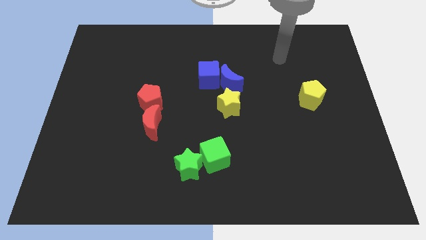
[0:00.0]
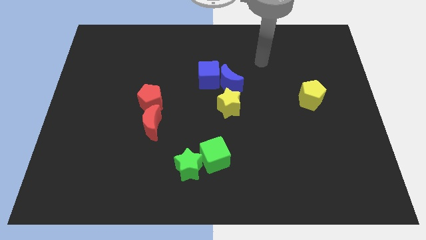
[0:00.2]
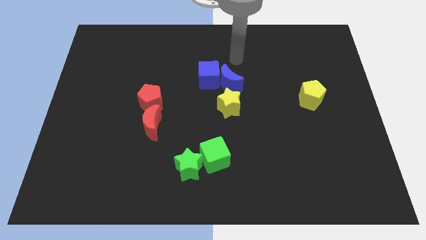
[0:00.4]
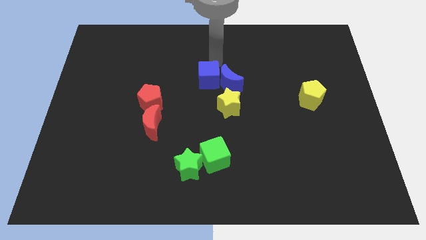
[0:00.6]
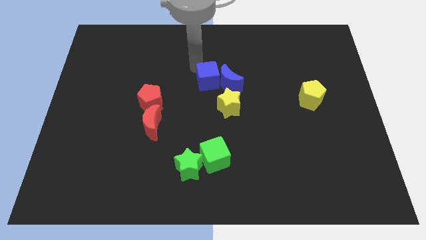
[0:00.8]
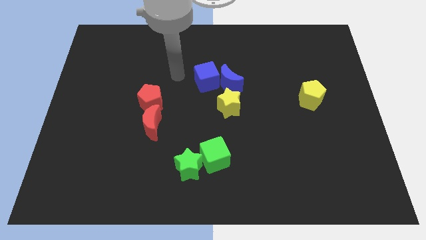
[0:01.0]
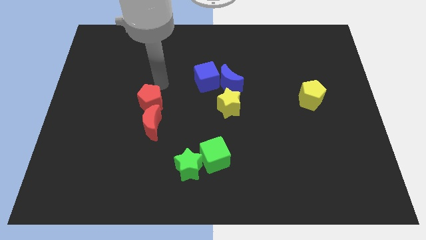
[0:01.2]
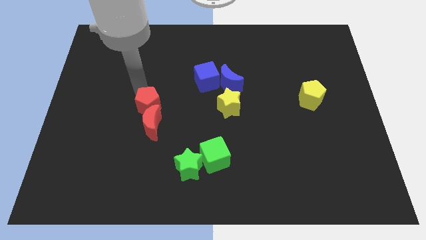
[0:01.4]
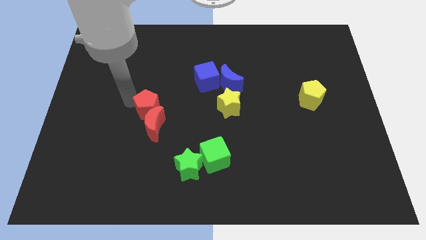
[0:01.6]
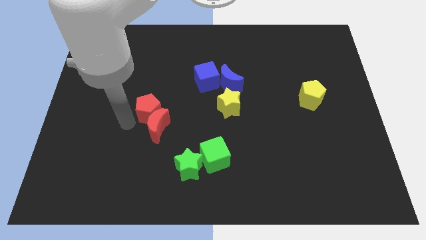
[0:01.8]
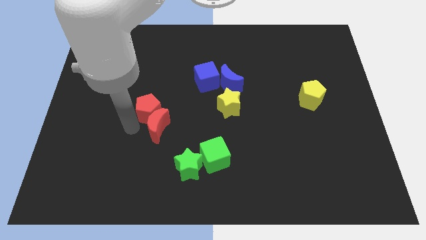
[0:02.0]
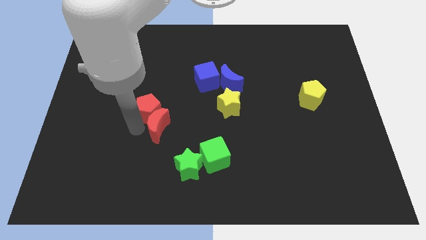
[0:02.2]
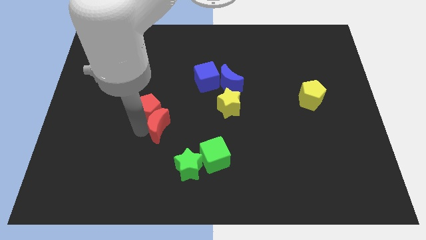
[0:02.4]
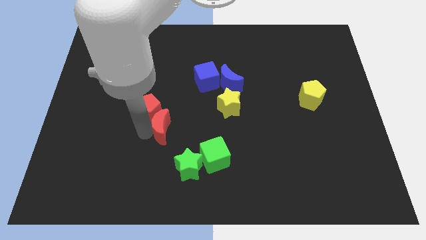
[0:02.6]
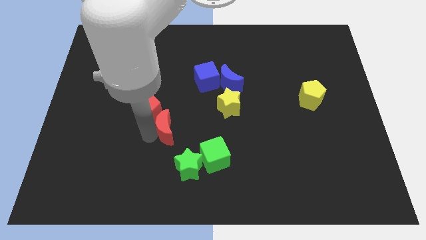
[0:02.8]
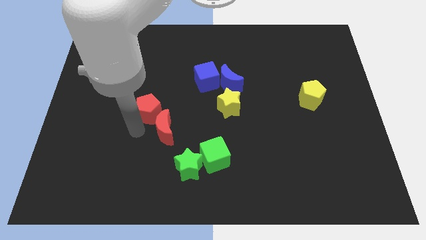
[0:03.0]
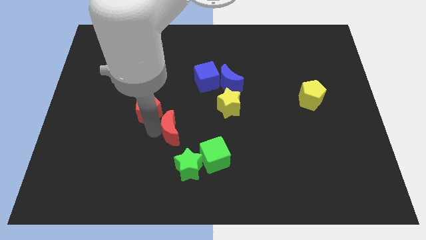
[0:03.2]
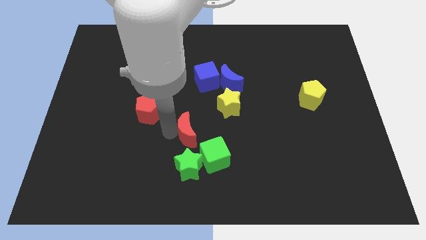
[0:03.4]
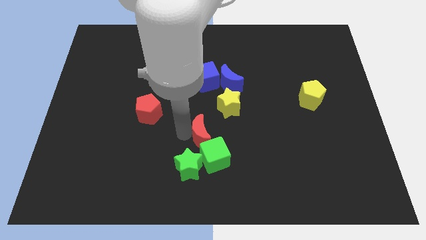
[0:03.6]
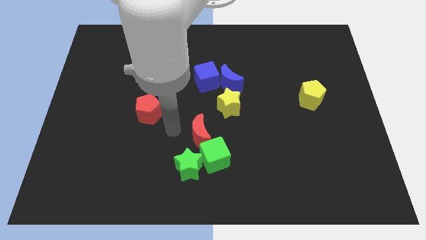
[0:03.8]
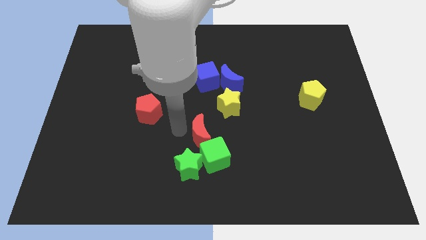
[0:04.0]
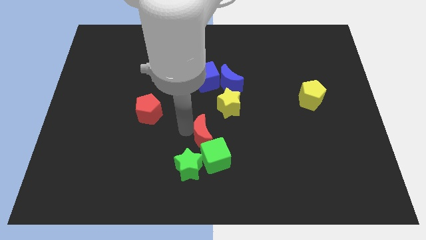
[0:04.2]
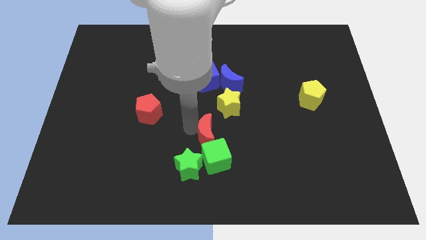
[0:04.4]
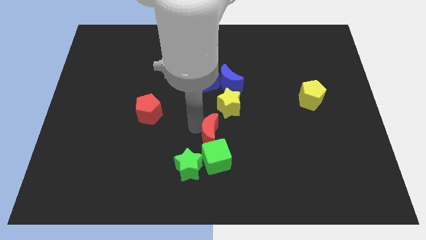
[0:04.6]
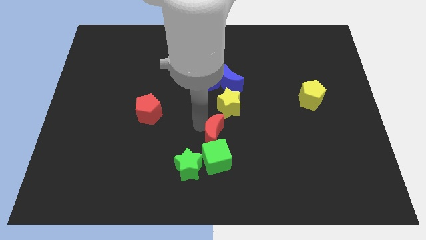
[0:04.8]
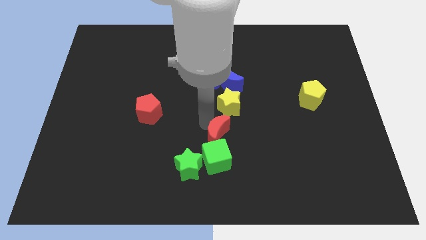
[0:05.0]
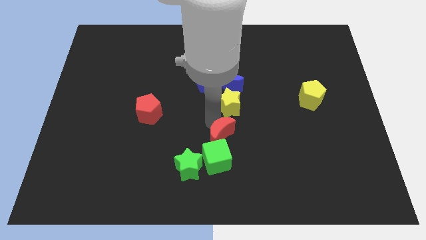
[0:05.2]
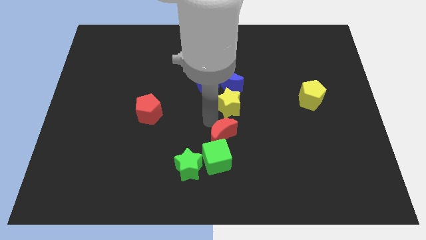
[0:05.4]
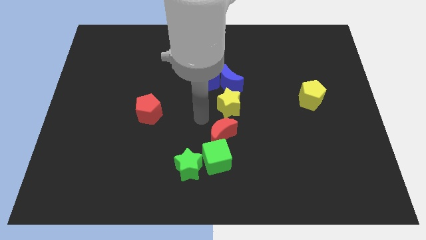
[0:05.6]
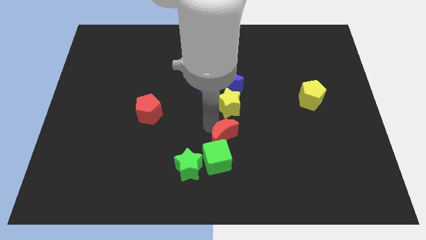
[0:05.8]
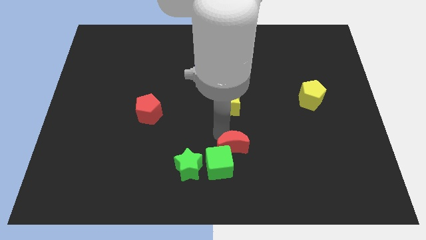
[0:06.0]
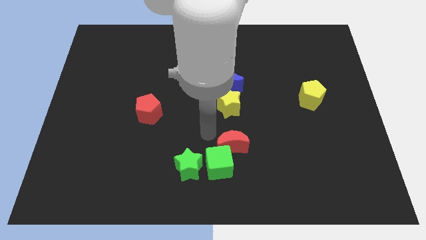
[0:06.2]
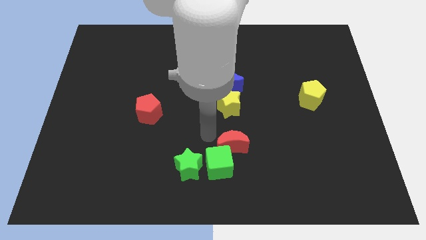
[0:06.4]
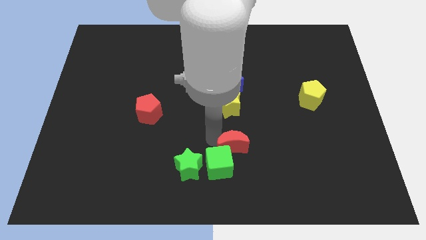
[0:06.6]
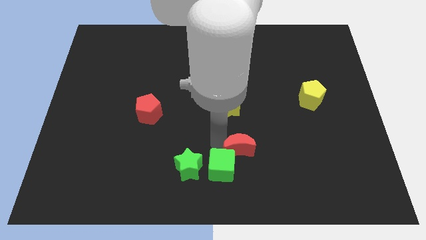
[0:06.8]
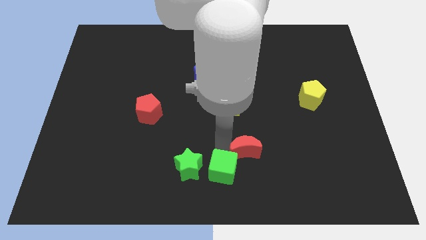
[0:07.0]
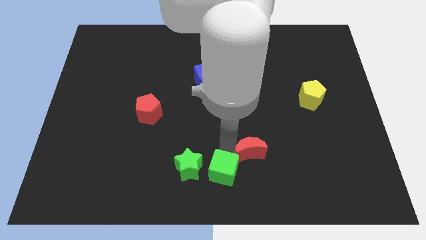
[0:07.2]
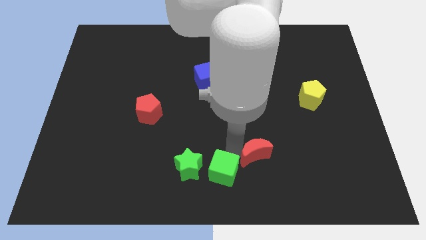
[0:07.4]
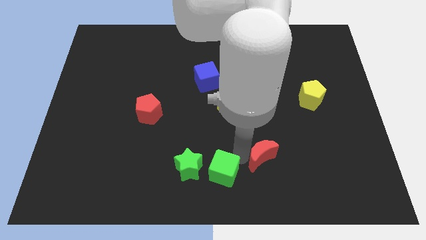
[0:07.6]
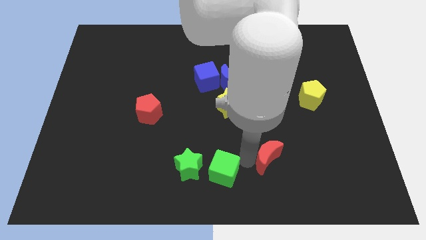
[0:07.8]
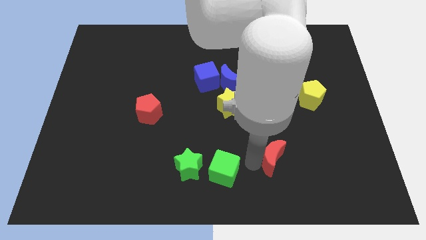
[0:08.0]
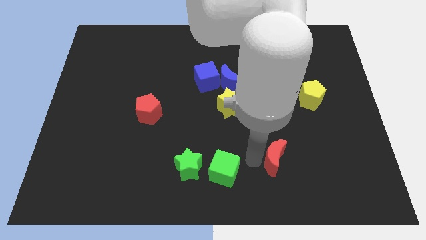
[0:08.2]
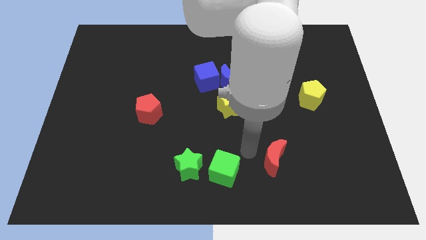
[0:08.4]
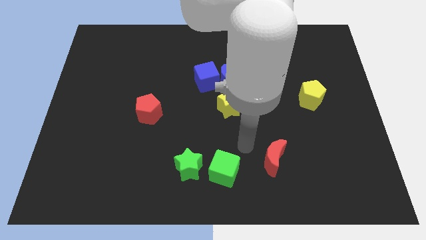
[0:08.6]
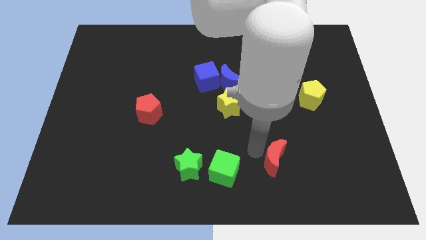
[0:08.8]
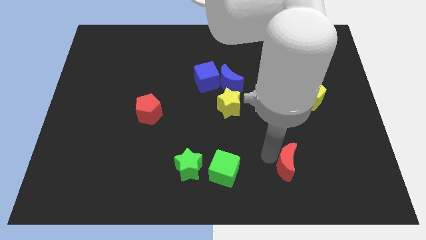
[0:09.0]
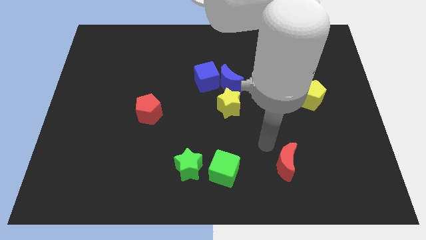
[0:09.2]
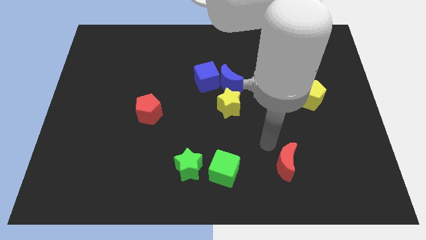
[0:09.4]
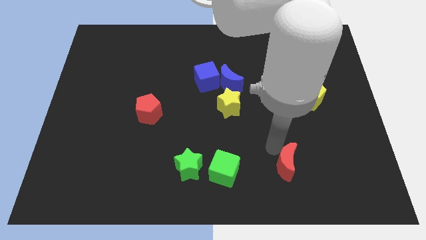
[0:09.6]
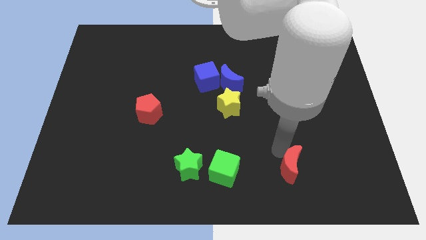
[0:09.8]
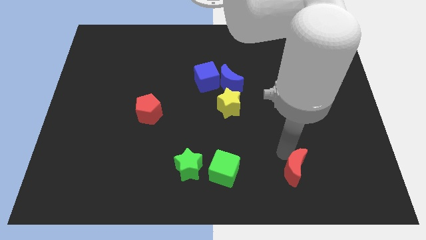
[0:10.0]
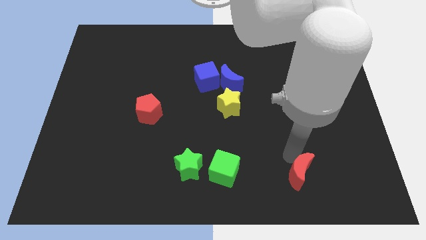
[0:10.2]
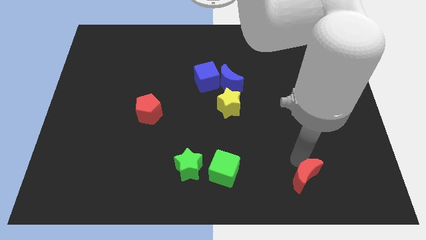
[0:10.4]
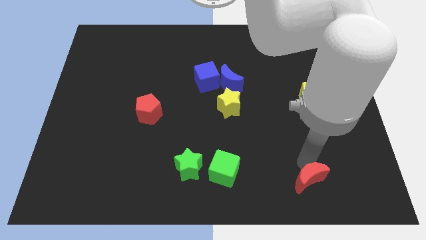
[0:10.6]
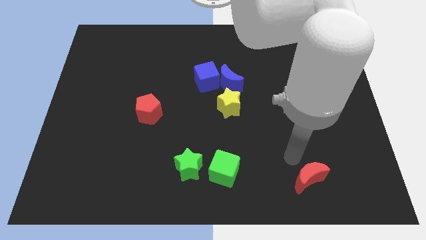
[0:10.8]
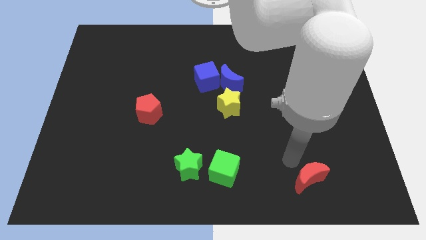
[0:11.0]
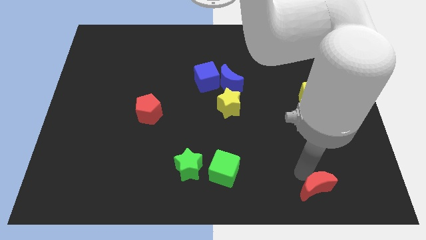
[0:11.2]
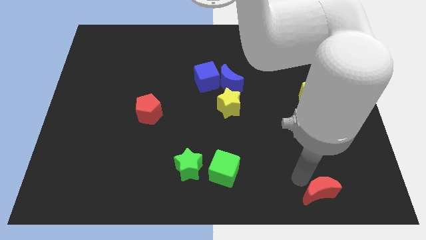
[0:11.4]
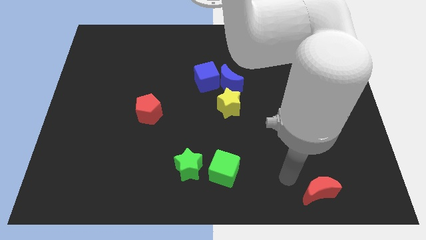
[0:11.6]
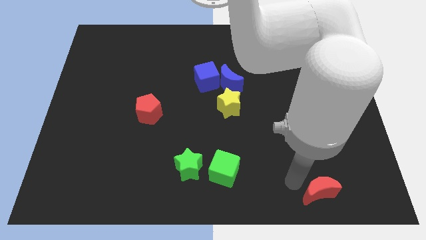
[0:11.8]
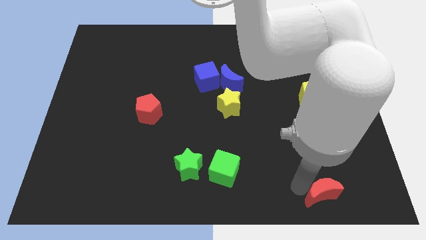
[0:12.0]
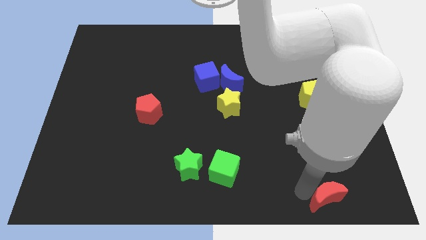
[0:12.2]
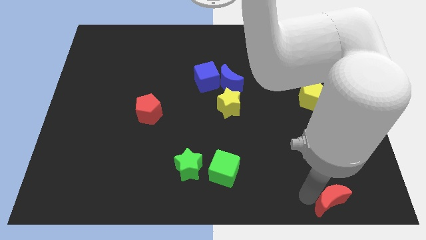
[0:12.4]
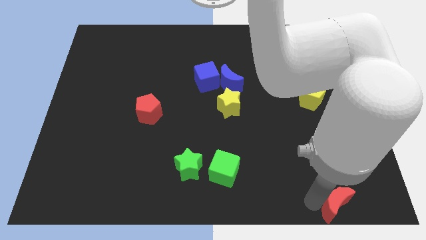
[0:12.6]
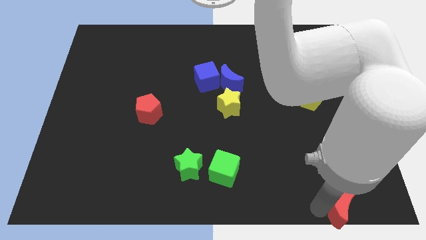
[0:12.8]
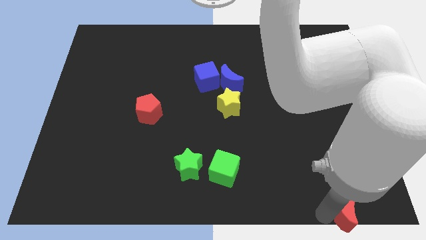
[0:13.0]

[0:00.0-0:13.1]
slide the red moon to the bottom right
